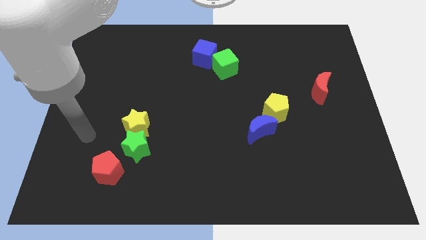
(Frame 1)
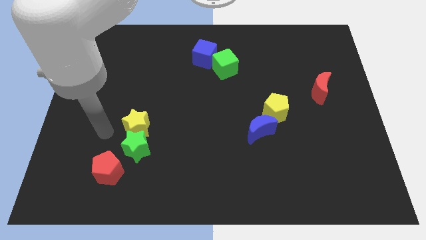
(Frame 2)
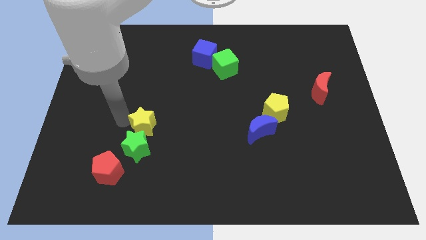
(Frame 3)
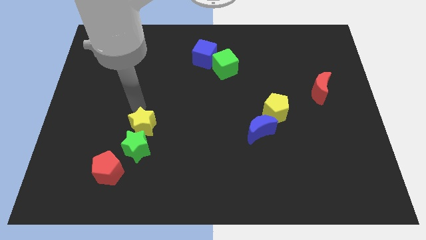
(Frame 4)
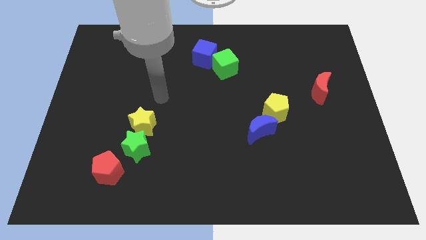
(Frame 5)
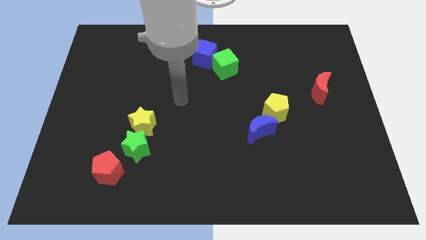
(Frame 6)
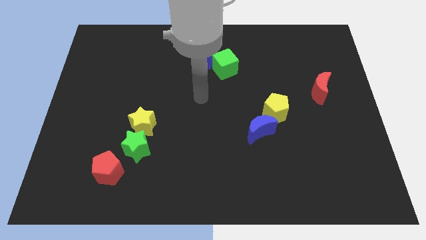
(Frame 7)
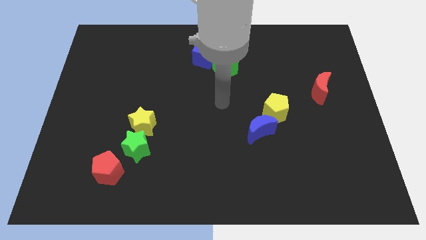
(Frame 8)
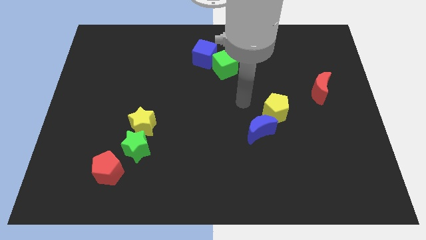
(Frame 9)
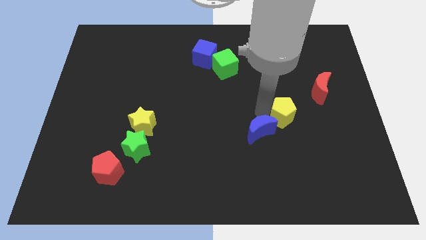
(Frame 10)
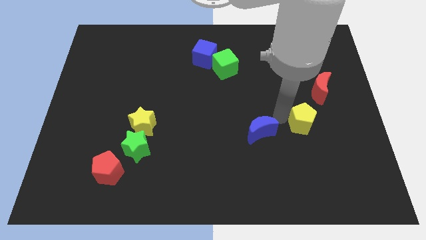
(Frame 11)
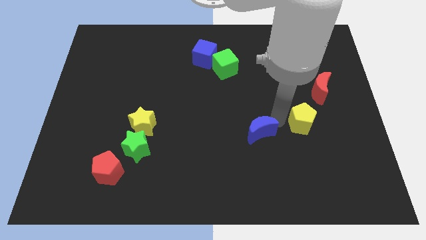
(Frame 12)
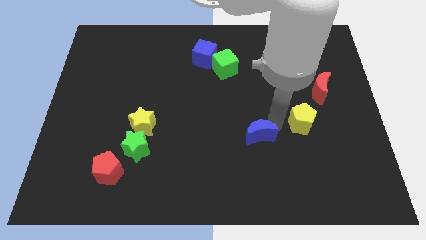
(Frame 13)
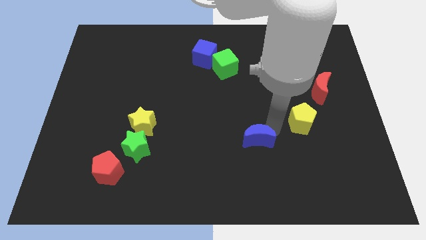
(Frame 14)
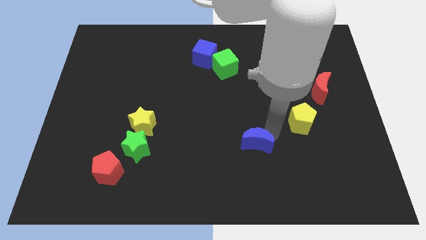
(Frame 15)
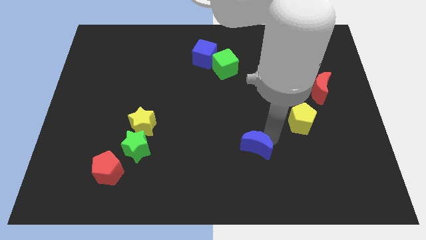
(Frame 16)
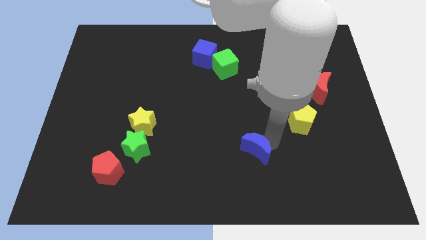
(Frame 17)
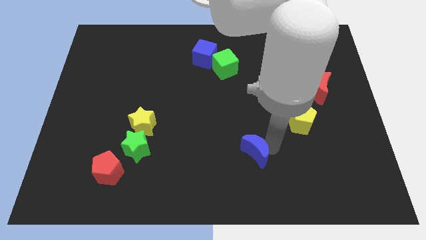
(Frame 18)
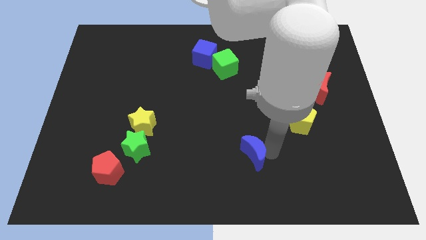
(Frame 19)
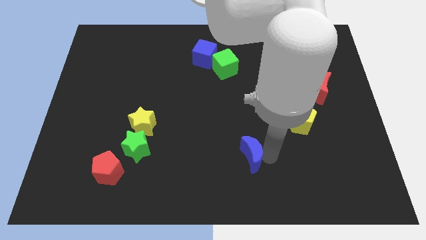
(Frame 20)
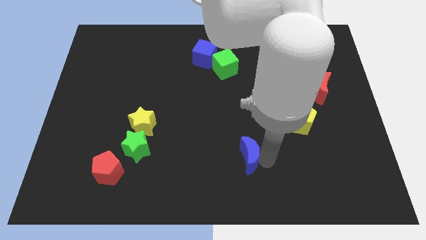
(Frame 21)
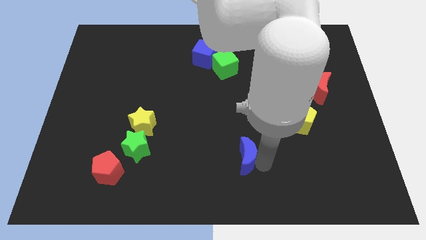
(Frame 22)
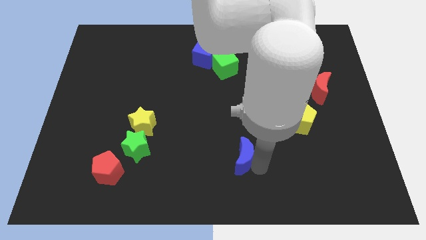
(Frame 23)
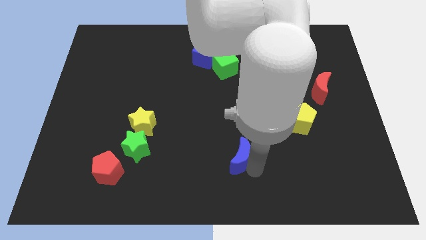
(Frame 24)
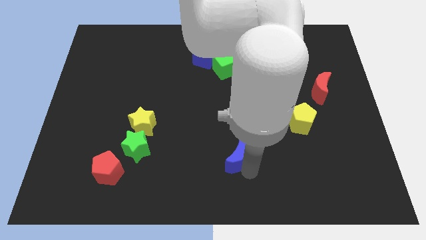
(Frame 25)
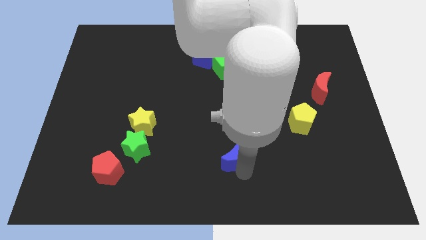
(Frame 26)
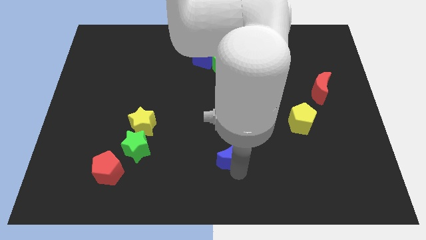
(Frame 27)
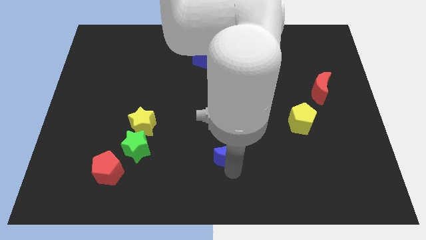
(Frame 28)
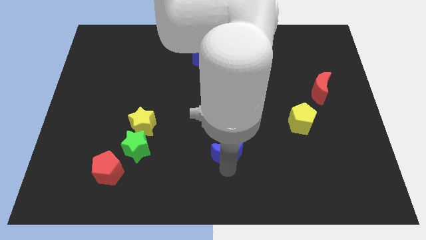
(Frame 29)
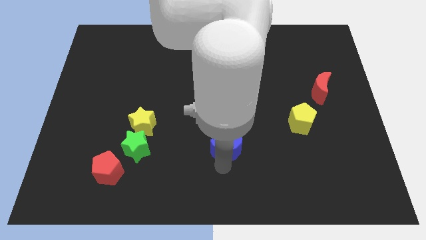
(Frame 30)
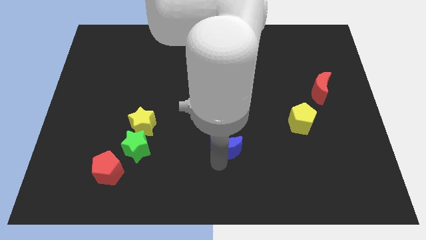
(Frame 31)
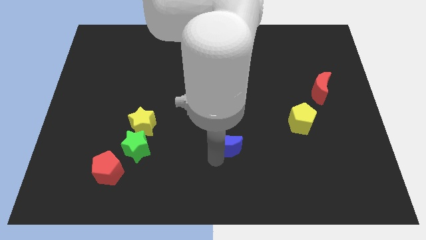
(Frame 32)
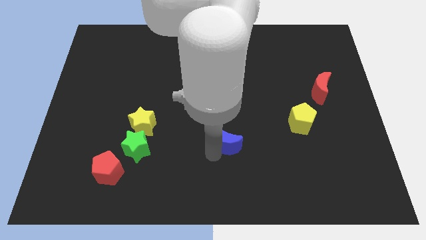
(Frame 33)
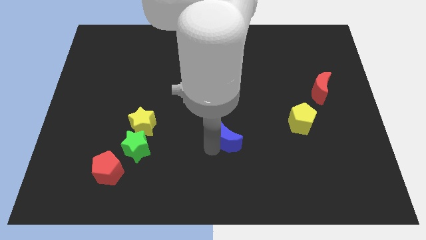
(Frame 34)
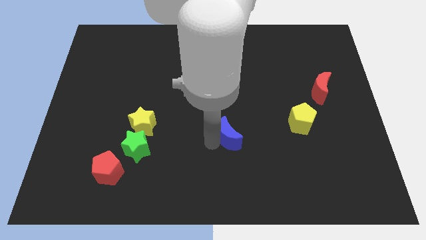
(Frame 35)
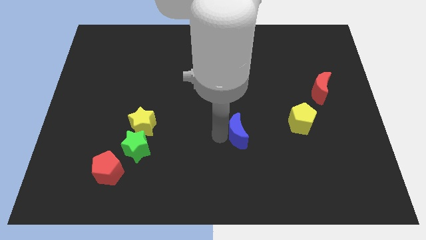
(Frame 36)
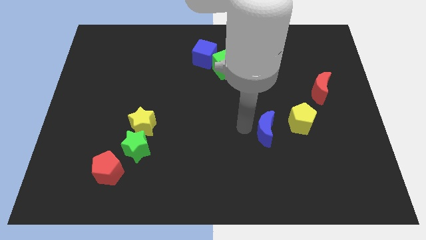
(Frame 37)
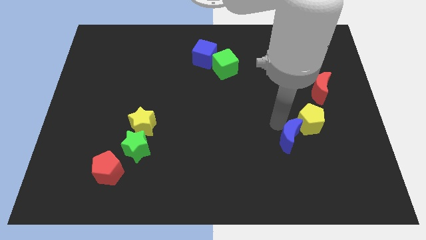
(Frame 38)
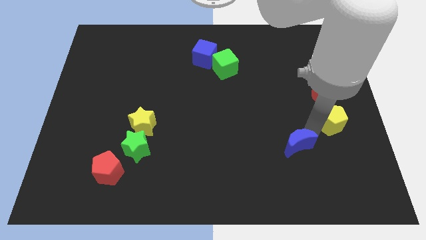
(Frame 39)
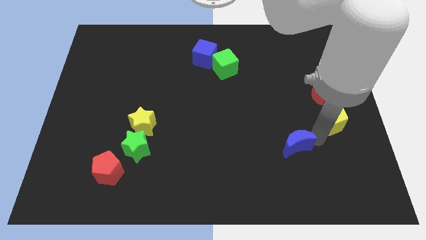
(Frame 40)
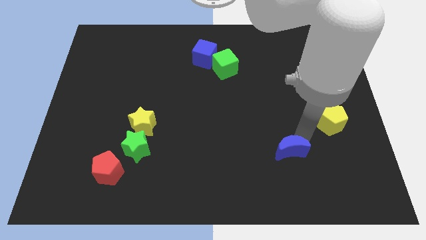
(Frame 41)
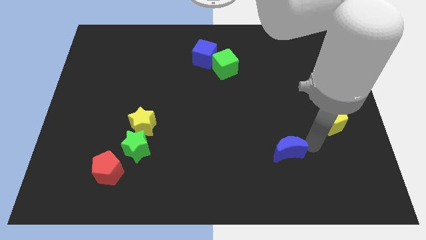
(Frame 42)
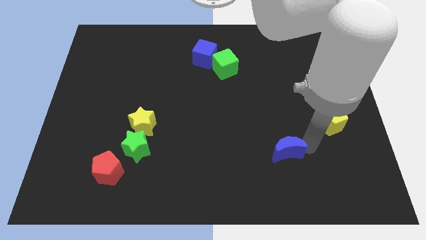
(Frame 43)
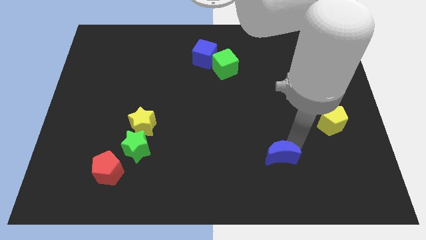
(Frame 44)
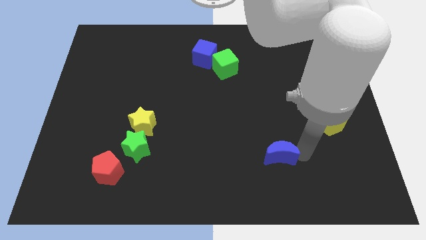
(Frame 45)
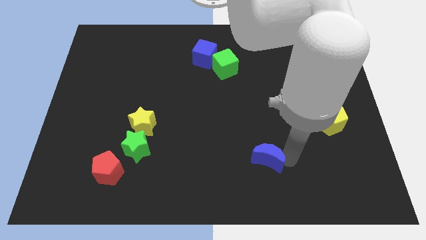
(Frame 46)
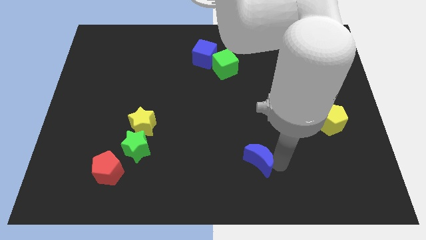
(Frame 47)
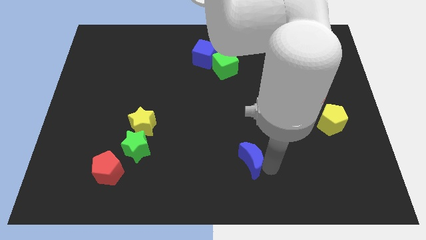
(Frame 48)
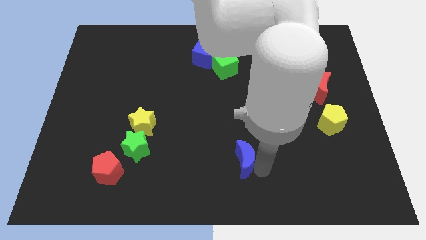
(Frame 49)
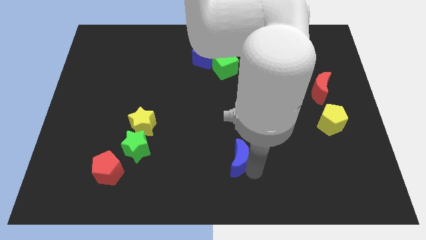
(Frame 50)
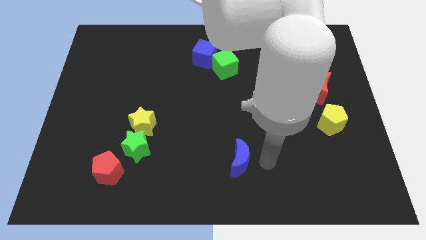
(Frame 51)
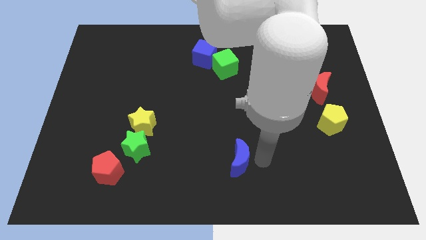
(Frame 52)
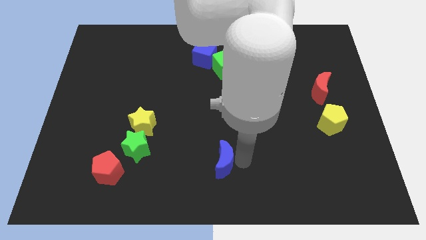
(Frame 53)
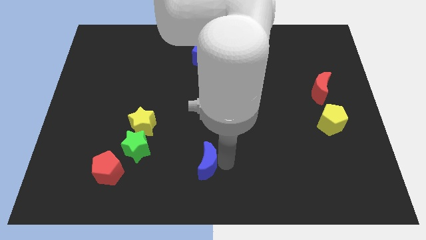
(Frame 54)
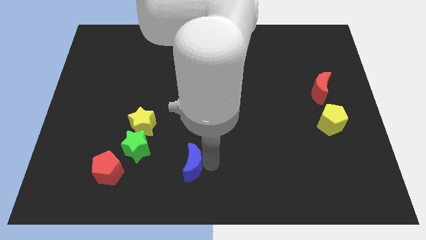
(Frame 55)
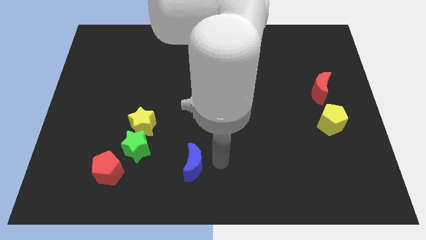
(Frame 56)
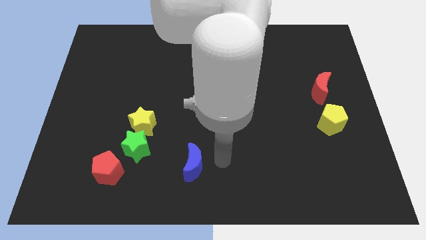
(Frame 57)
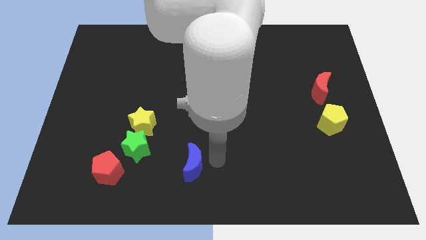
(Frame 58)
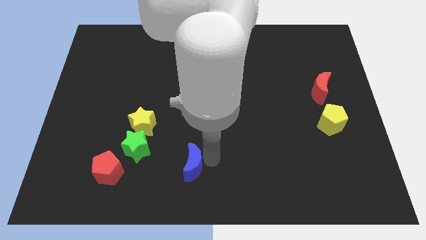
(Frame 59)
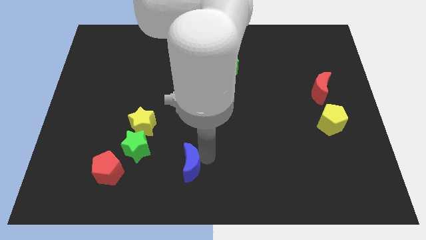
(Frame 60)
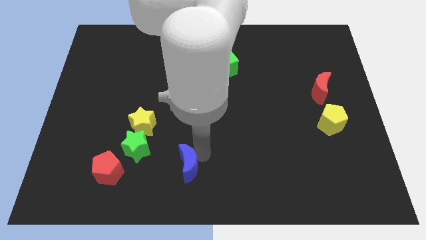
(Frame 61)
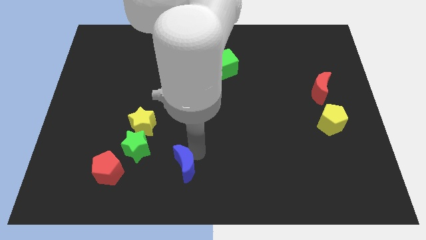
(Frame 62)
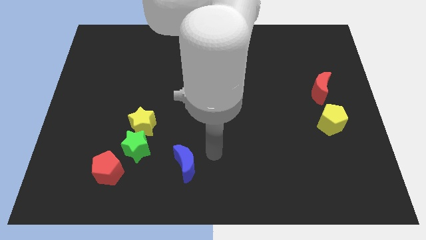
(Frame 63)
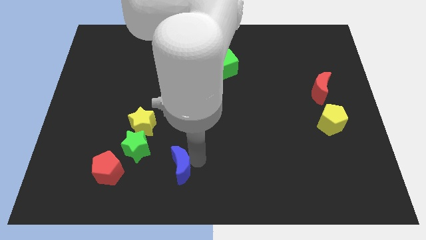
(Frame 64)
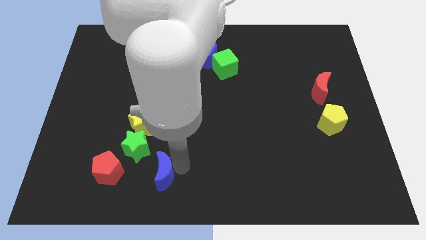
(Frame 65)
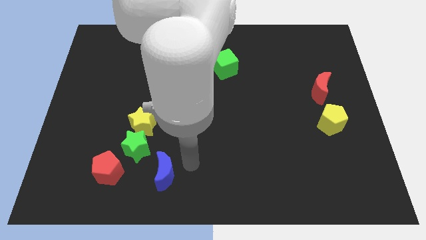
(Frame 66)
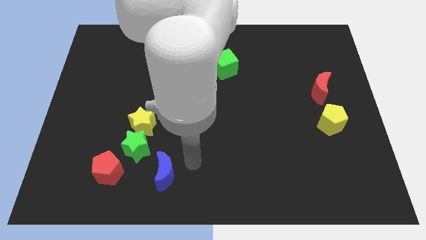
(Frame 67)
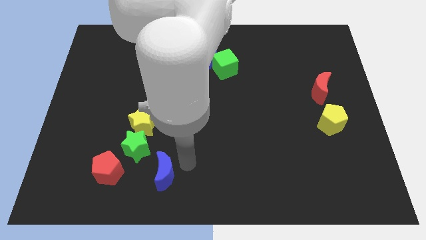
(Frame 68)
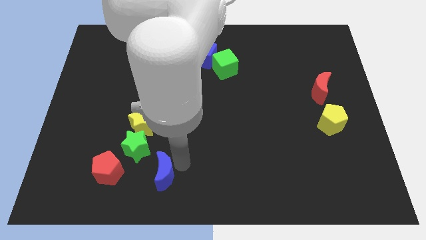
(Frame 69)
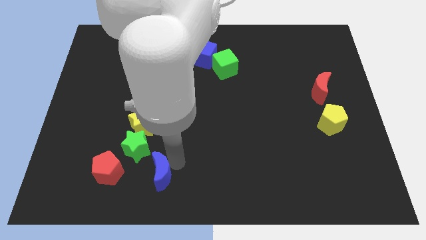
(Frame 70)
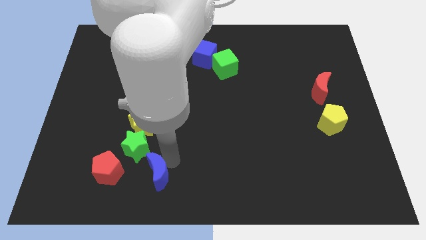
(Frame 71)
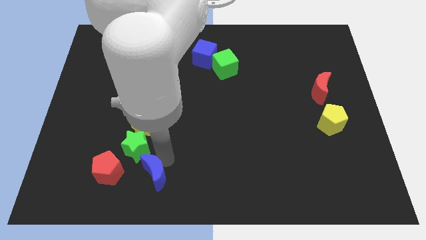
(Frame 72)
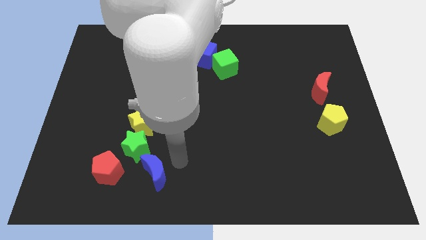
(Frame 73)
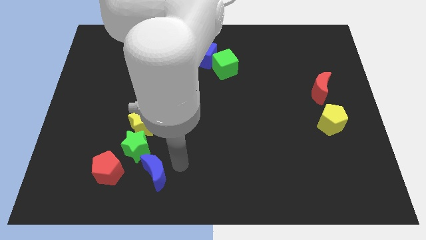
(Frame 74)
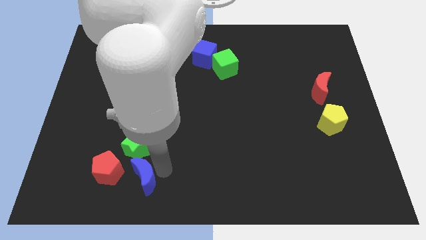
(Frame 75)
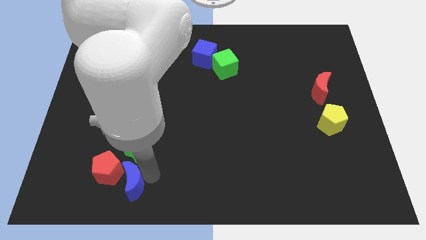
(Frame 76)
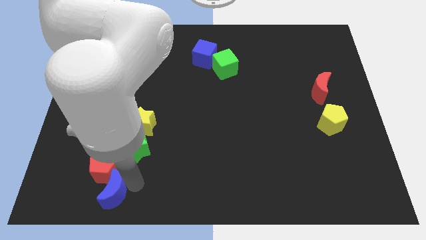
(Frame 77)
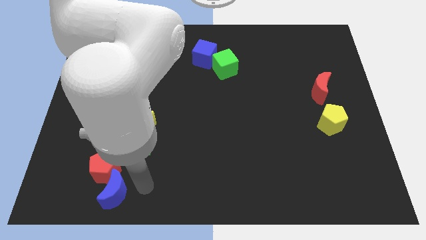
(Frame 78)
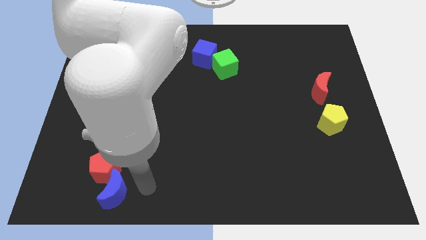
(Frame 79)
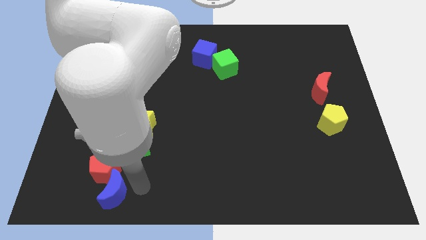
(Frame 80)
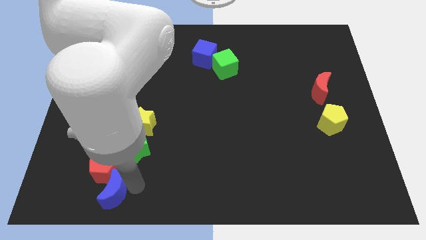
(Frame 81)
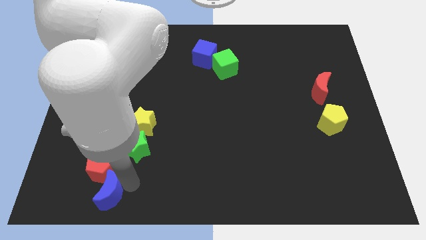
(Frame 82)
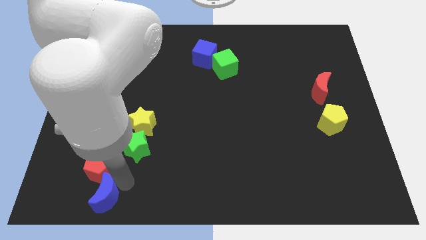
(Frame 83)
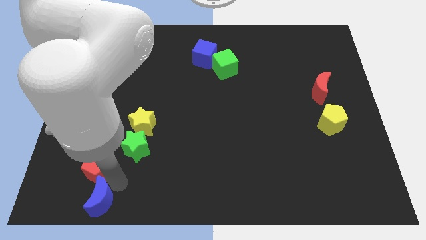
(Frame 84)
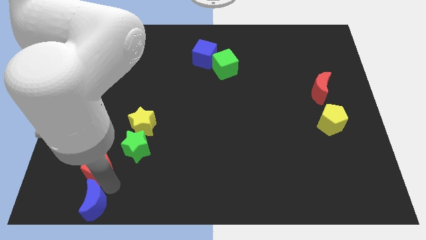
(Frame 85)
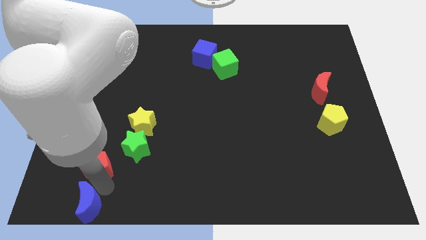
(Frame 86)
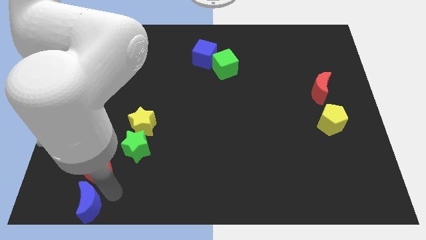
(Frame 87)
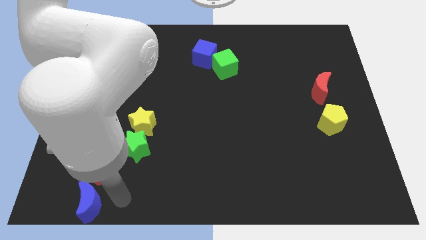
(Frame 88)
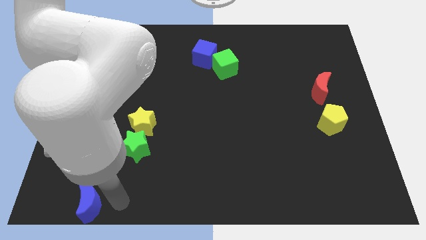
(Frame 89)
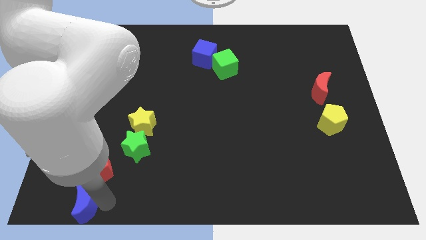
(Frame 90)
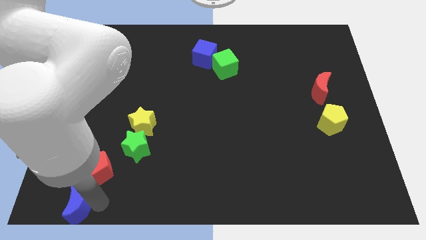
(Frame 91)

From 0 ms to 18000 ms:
move the blue moon to the bottom left
